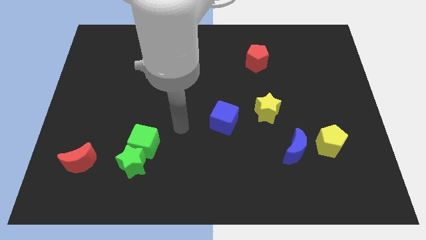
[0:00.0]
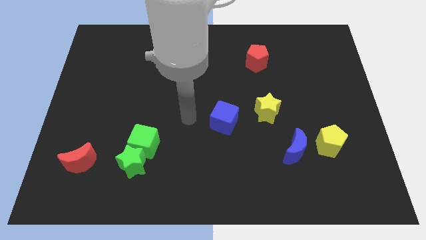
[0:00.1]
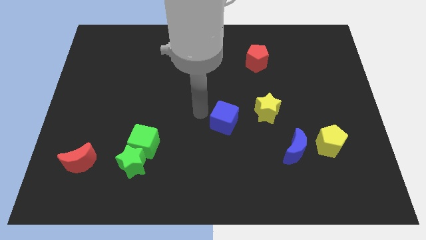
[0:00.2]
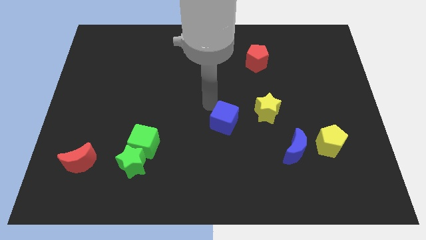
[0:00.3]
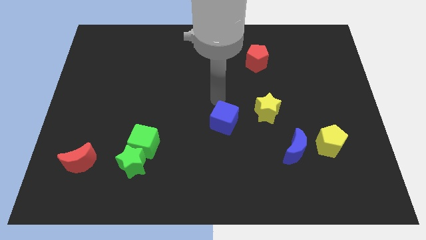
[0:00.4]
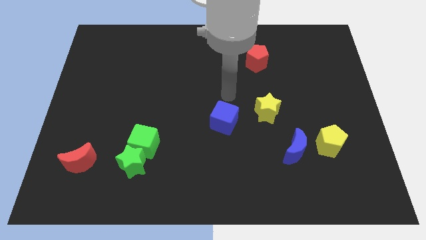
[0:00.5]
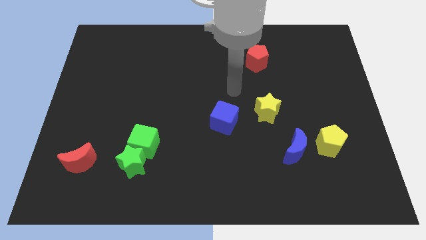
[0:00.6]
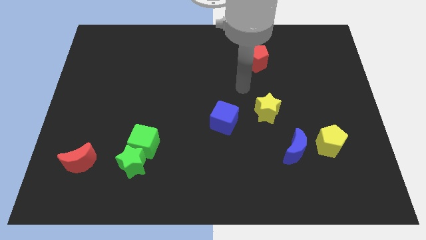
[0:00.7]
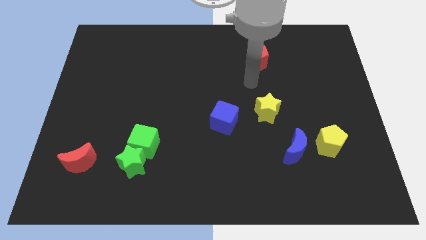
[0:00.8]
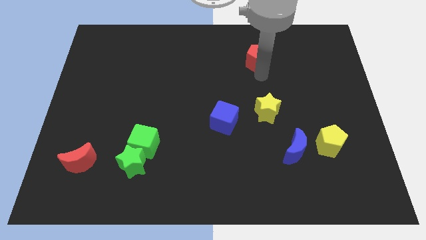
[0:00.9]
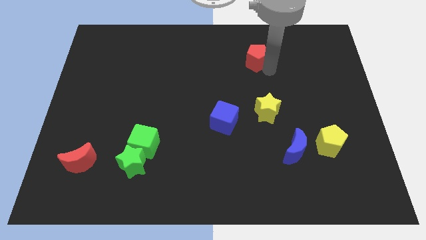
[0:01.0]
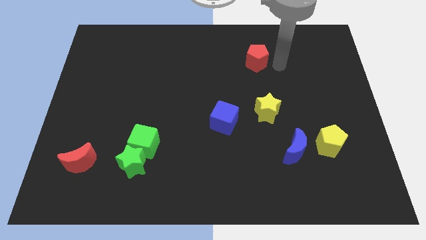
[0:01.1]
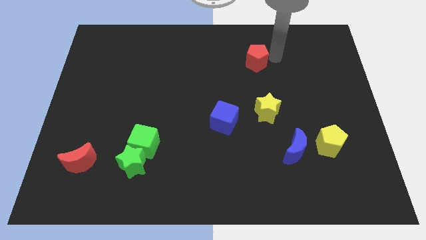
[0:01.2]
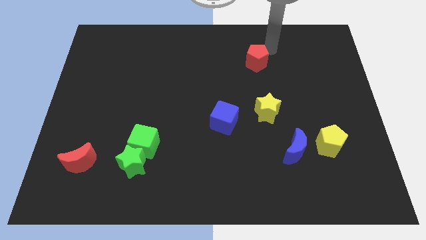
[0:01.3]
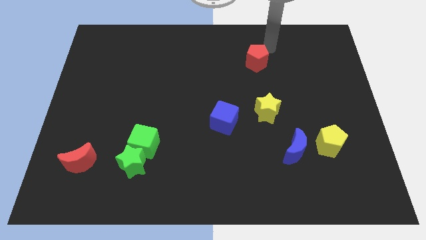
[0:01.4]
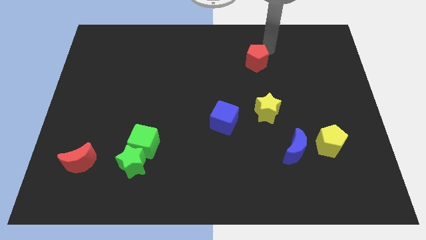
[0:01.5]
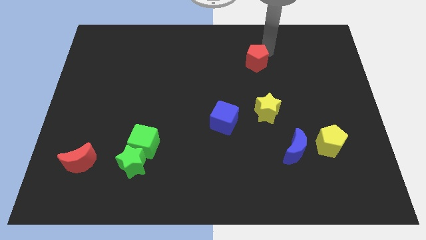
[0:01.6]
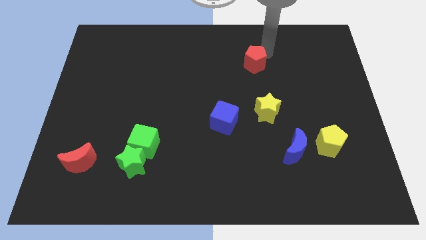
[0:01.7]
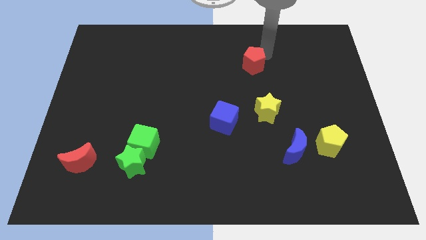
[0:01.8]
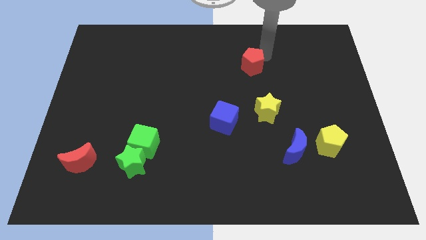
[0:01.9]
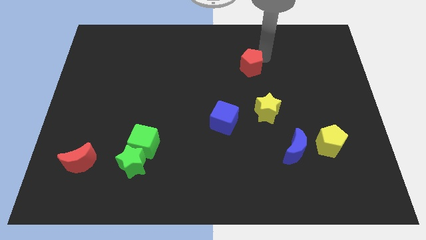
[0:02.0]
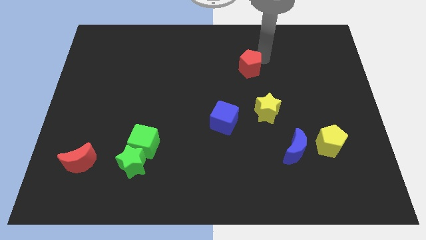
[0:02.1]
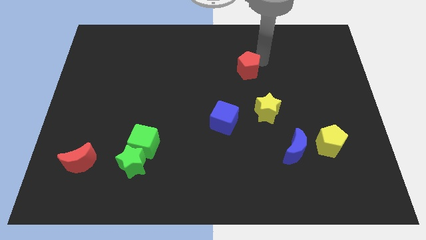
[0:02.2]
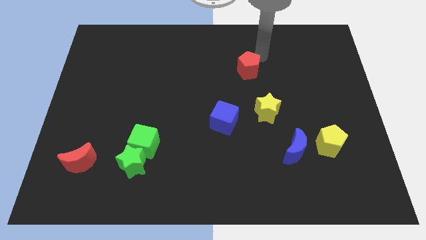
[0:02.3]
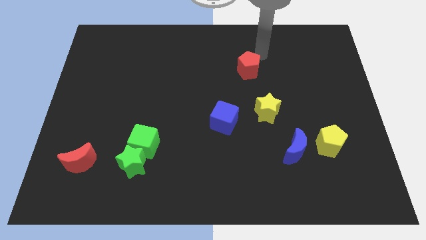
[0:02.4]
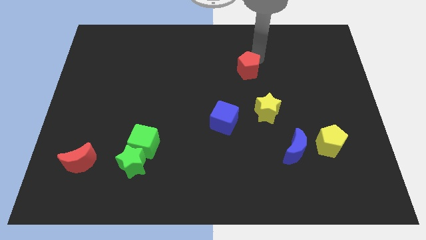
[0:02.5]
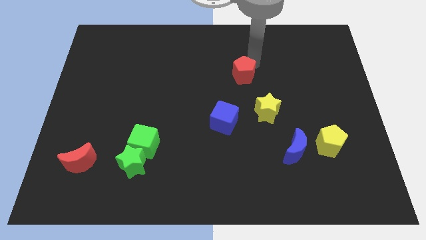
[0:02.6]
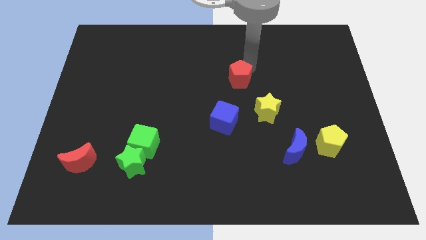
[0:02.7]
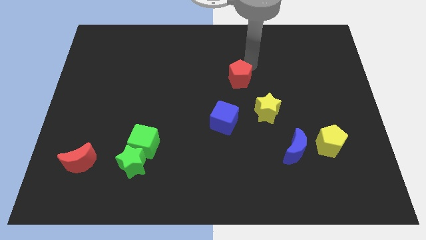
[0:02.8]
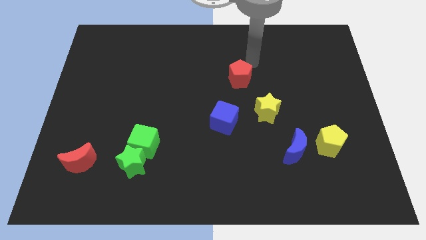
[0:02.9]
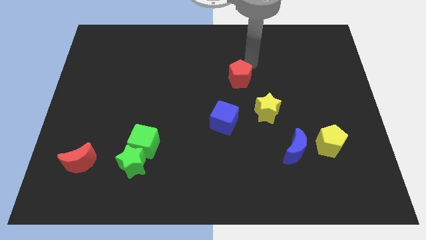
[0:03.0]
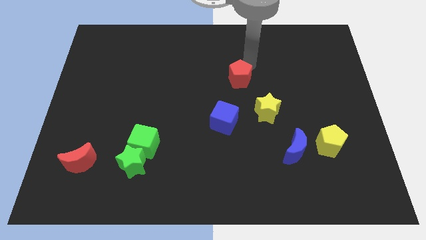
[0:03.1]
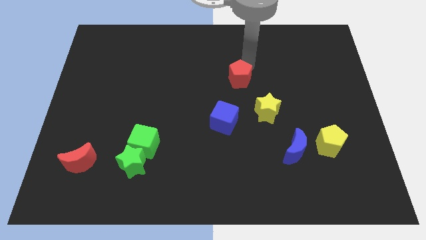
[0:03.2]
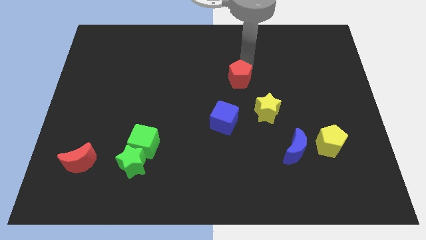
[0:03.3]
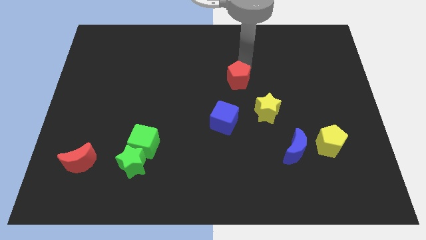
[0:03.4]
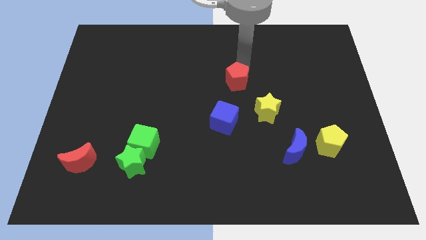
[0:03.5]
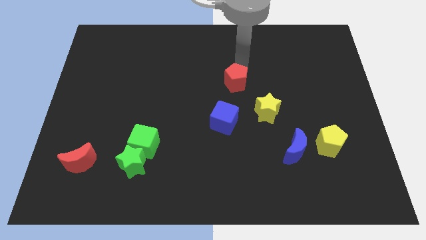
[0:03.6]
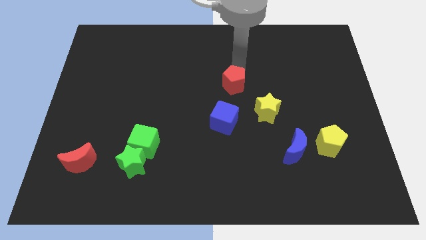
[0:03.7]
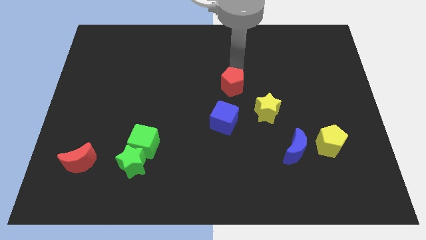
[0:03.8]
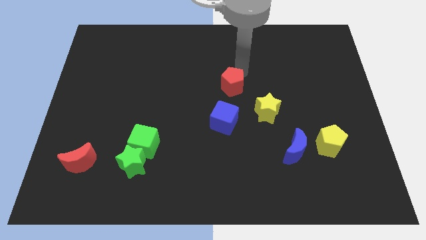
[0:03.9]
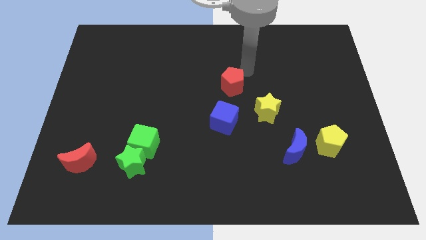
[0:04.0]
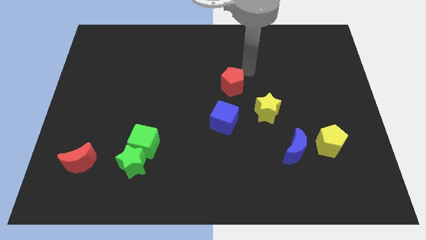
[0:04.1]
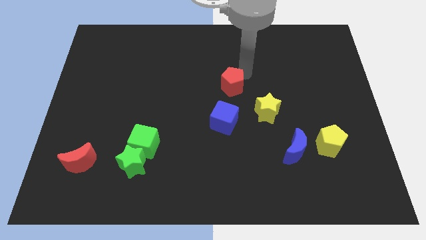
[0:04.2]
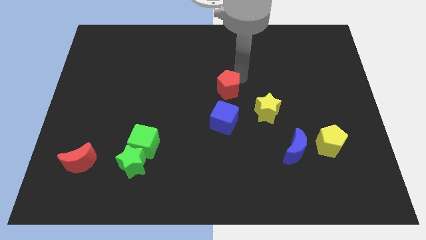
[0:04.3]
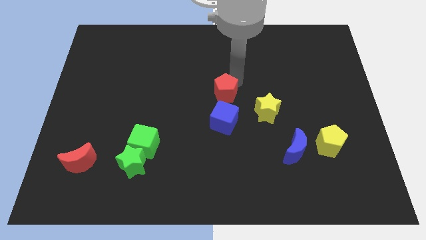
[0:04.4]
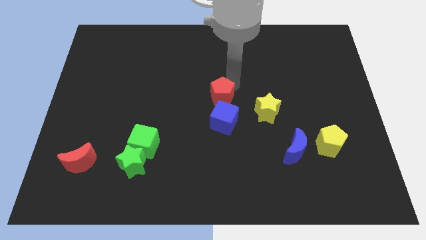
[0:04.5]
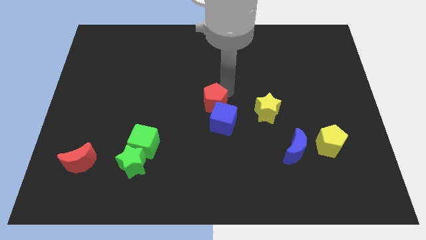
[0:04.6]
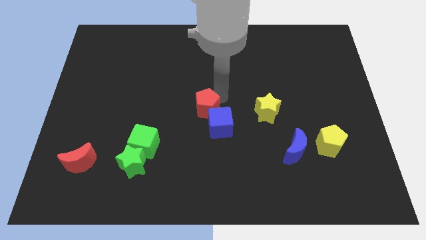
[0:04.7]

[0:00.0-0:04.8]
move the red pentagon downwards and then to the left

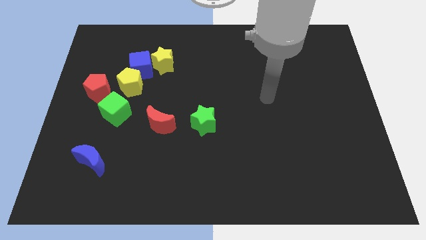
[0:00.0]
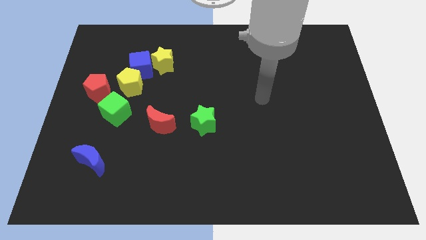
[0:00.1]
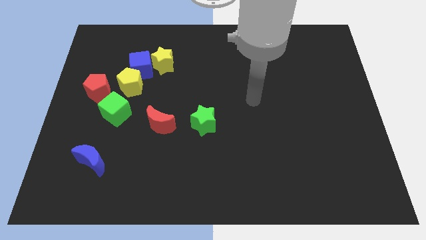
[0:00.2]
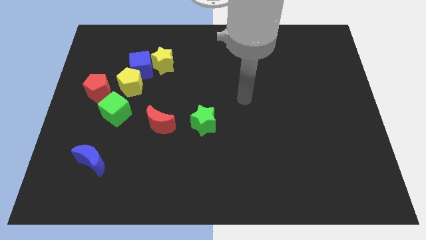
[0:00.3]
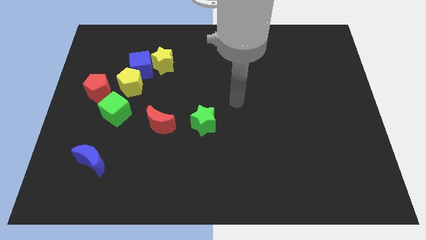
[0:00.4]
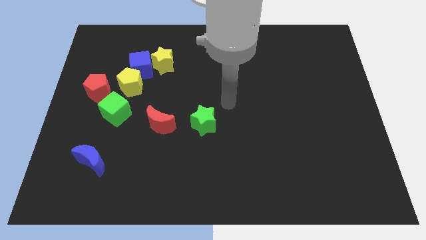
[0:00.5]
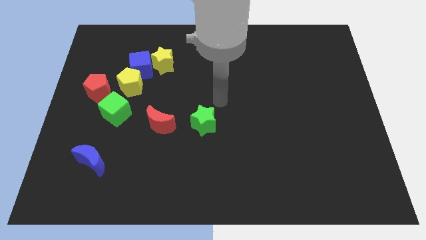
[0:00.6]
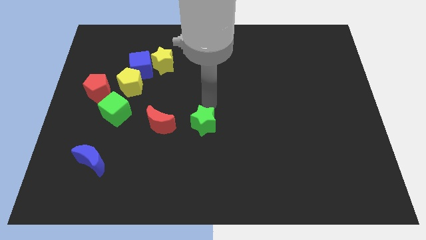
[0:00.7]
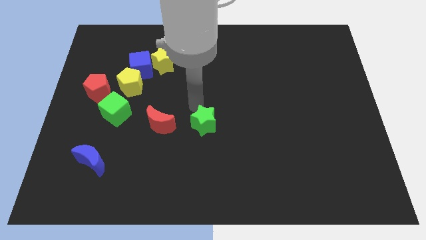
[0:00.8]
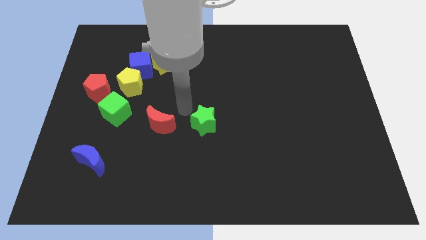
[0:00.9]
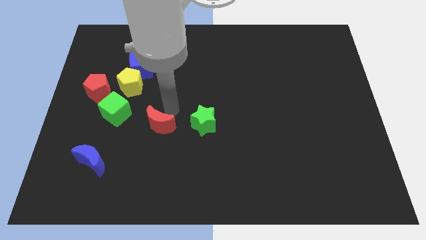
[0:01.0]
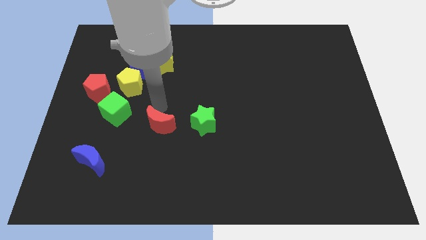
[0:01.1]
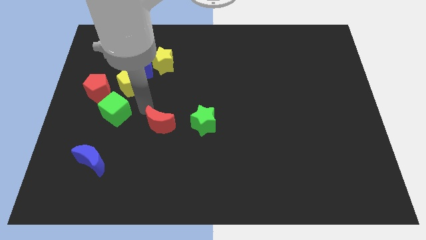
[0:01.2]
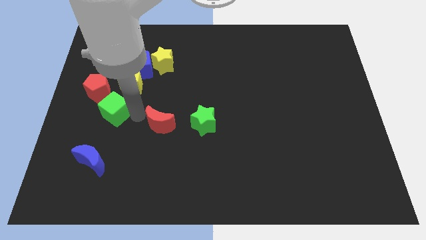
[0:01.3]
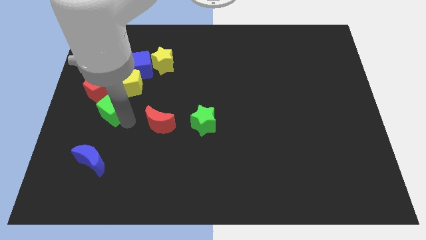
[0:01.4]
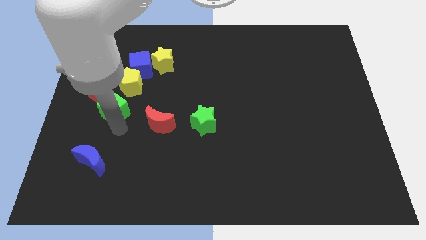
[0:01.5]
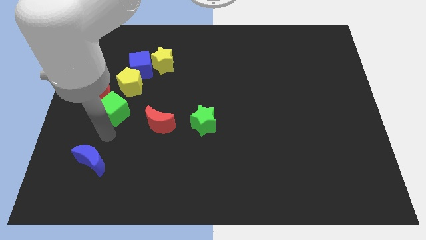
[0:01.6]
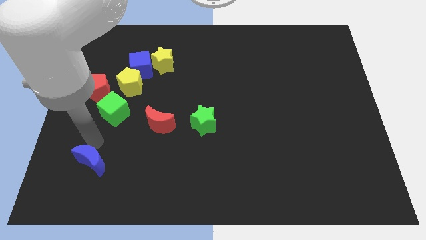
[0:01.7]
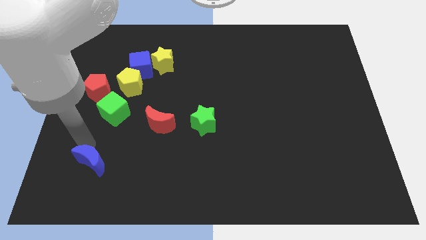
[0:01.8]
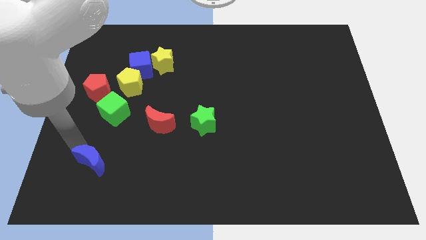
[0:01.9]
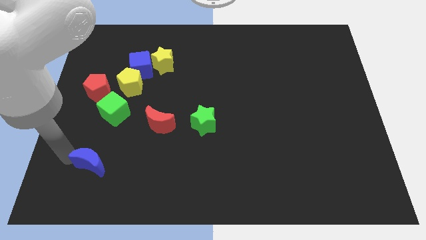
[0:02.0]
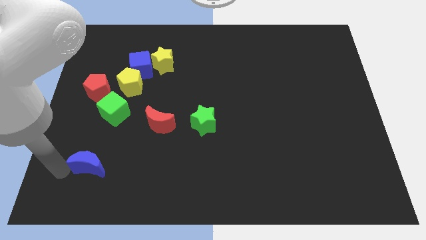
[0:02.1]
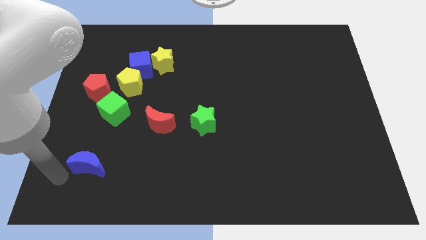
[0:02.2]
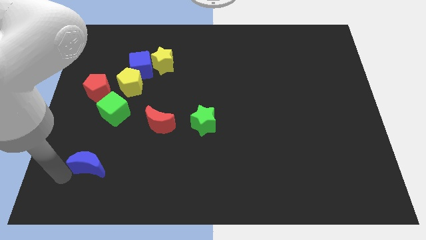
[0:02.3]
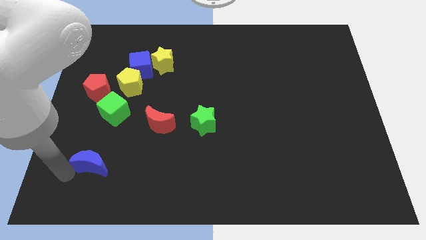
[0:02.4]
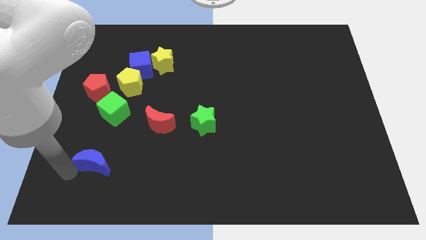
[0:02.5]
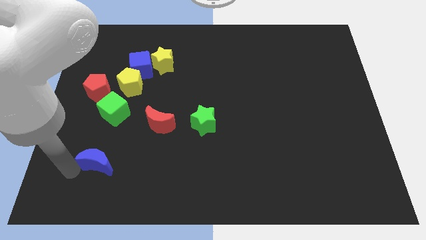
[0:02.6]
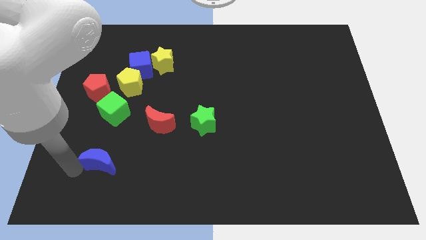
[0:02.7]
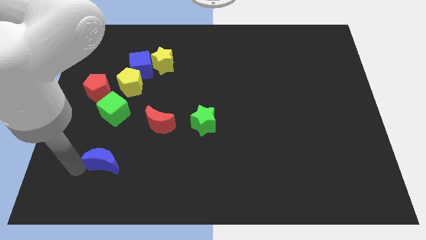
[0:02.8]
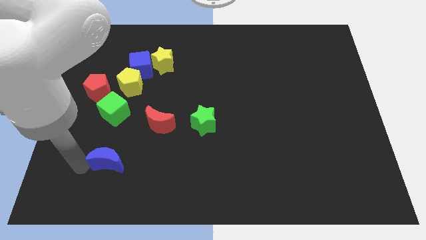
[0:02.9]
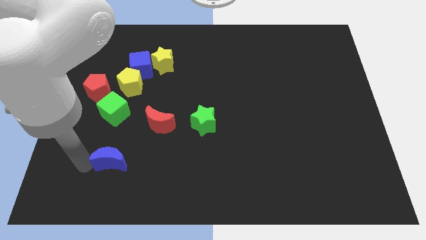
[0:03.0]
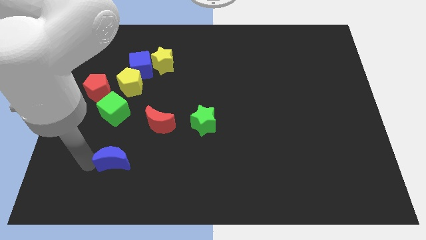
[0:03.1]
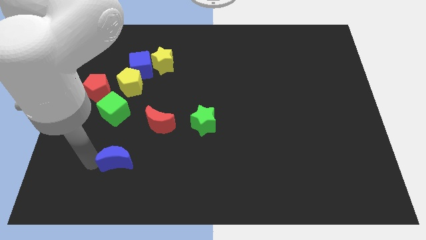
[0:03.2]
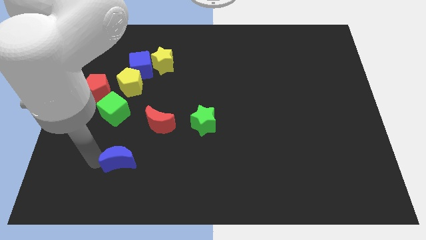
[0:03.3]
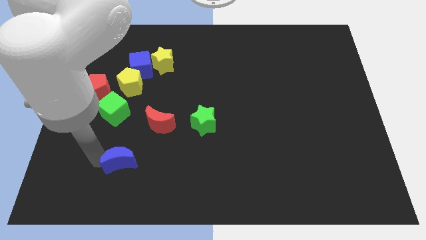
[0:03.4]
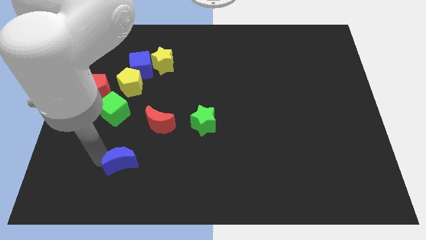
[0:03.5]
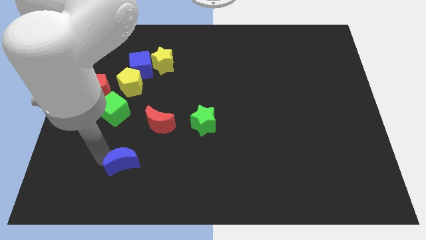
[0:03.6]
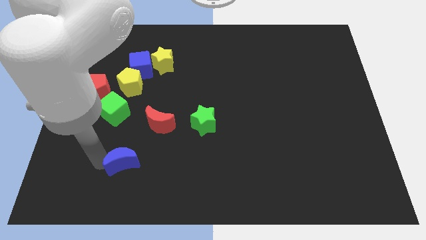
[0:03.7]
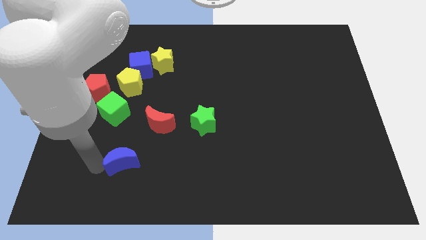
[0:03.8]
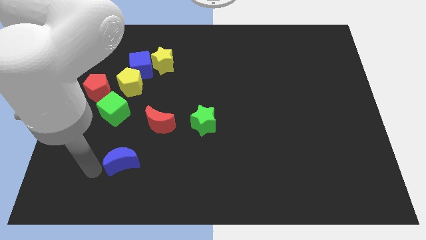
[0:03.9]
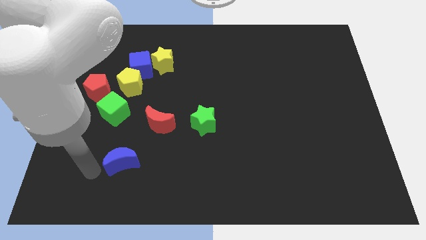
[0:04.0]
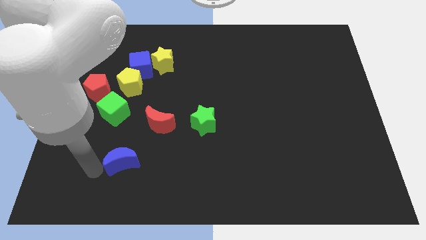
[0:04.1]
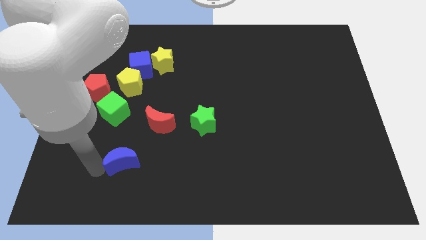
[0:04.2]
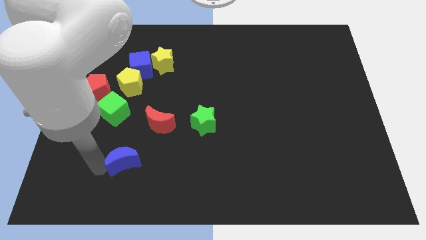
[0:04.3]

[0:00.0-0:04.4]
slightly slide the blue moon right
